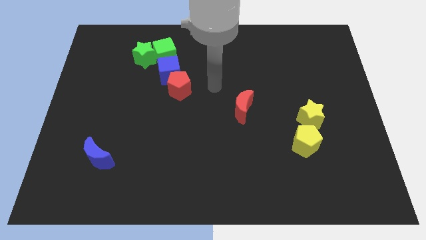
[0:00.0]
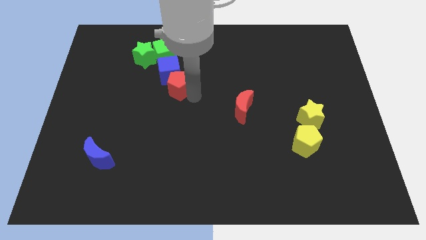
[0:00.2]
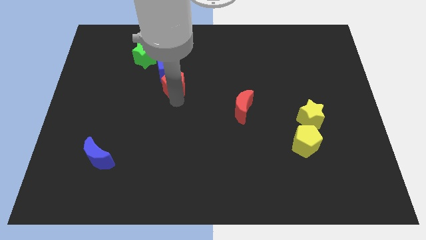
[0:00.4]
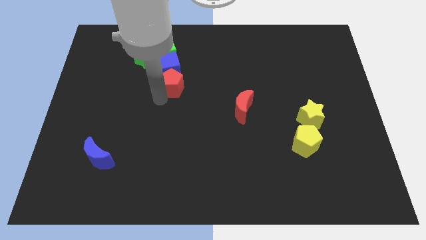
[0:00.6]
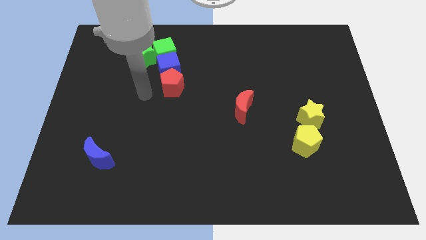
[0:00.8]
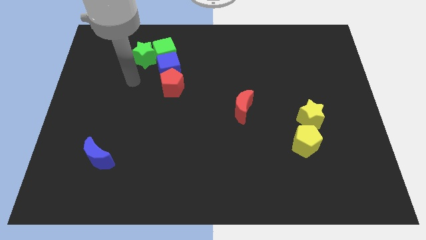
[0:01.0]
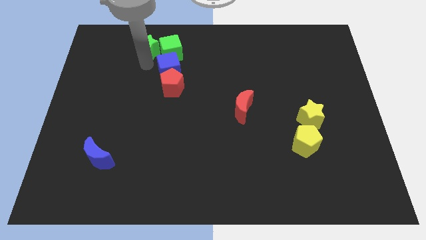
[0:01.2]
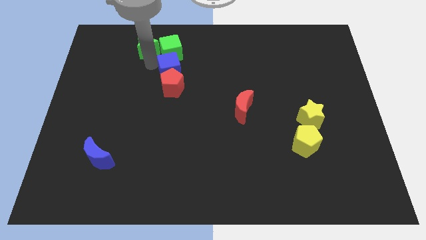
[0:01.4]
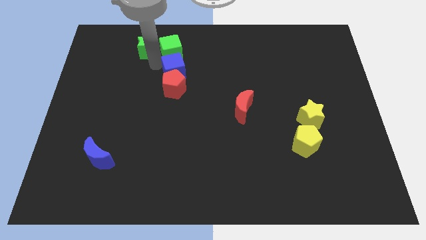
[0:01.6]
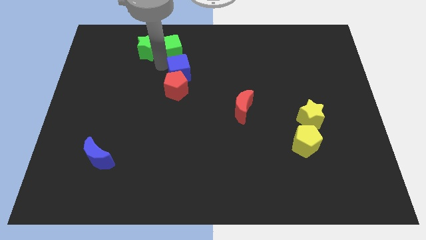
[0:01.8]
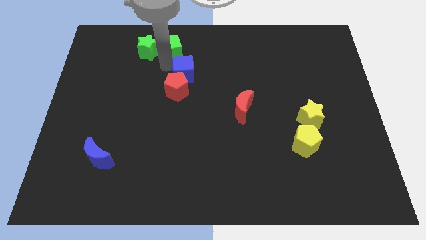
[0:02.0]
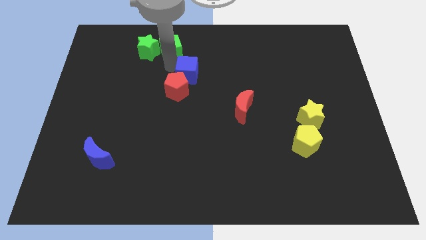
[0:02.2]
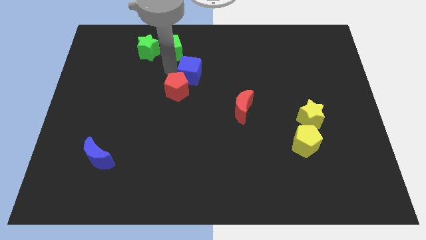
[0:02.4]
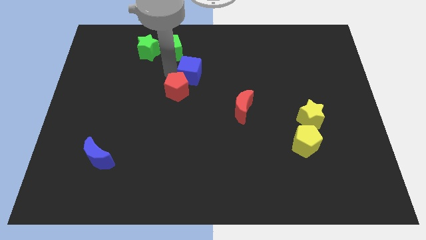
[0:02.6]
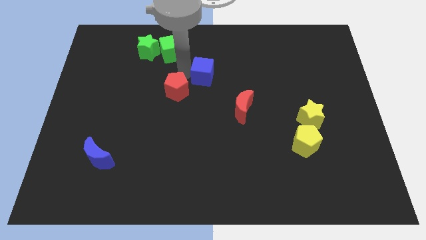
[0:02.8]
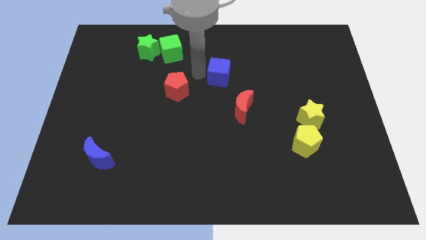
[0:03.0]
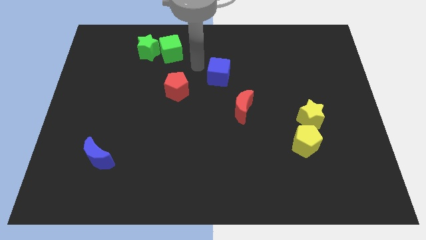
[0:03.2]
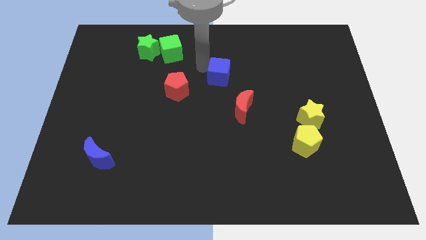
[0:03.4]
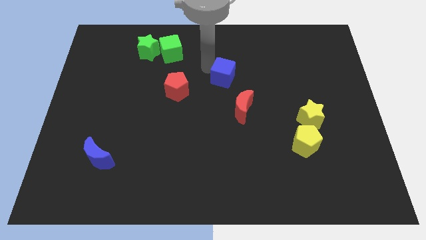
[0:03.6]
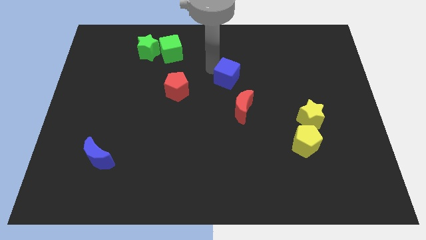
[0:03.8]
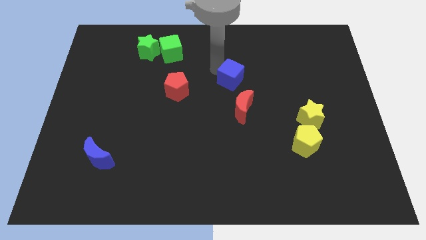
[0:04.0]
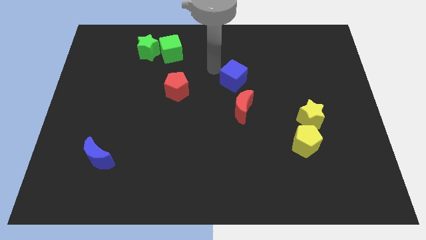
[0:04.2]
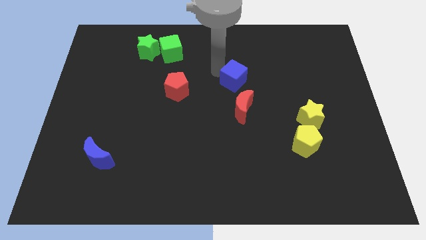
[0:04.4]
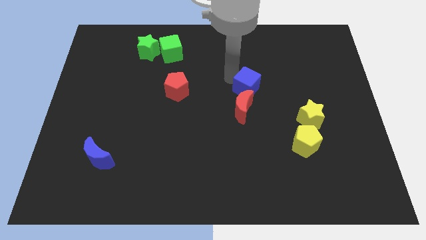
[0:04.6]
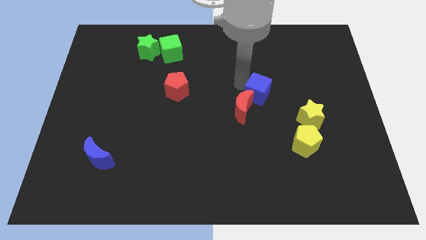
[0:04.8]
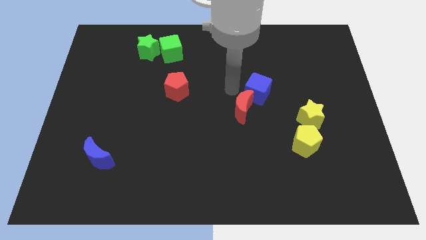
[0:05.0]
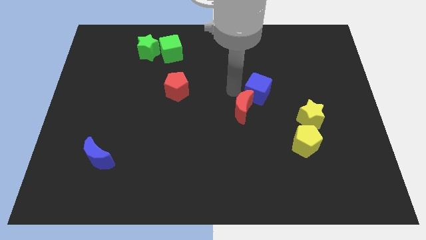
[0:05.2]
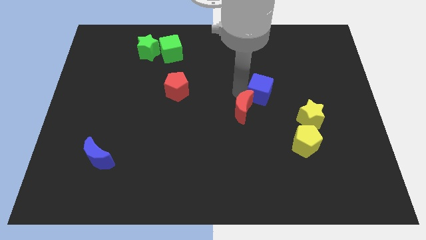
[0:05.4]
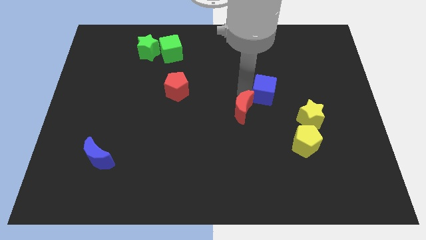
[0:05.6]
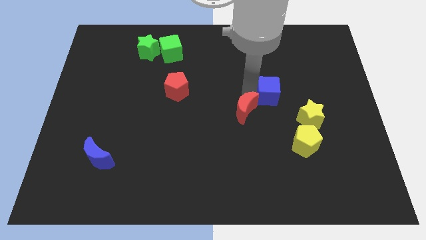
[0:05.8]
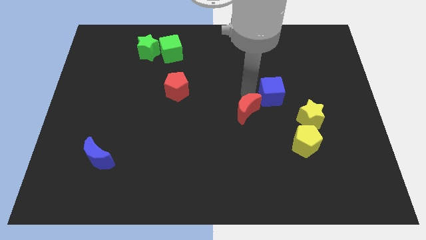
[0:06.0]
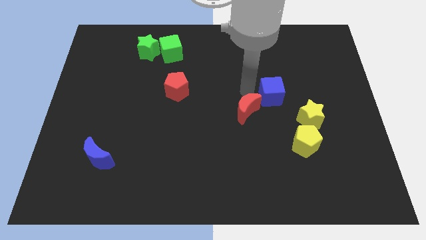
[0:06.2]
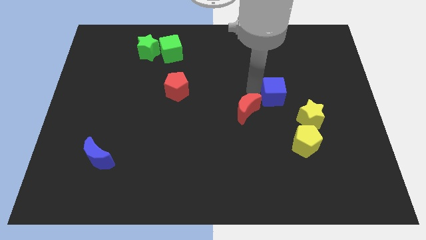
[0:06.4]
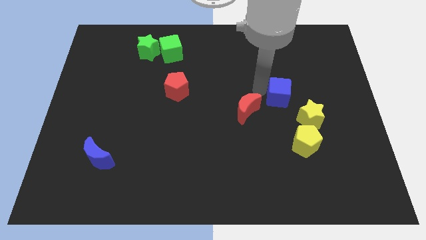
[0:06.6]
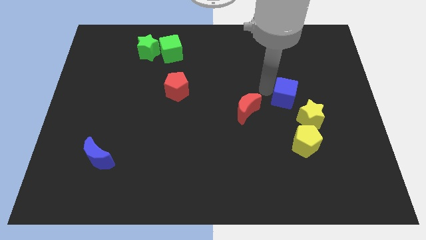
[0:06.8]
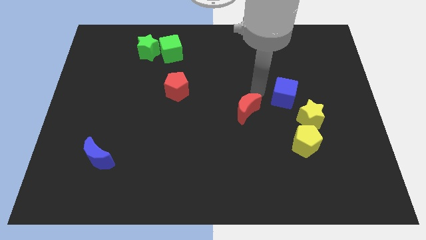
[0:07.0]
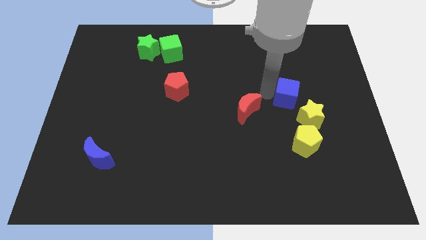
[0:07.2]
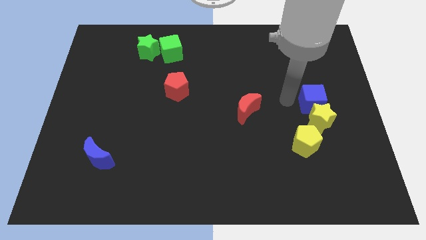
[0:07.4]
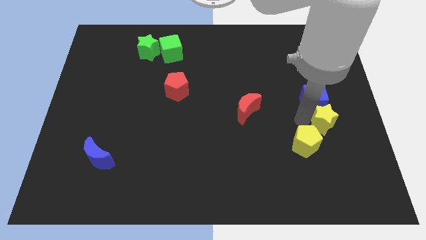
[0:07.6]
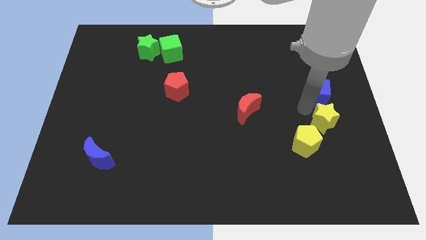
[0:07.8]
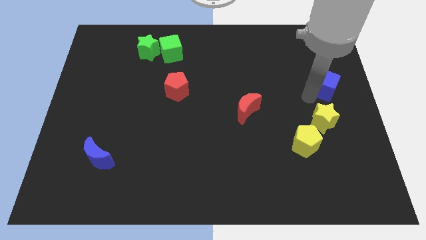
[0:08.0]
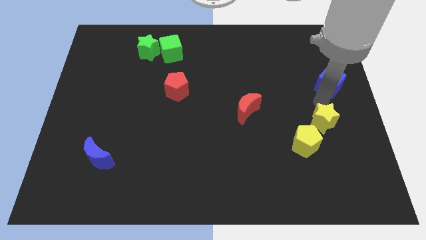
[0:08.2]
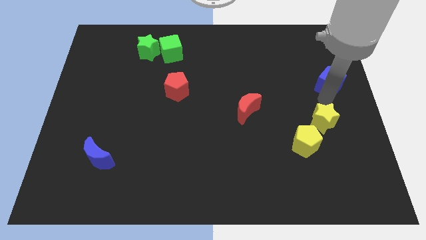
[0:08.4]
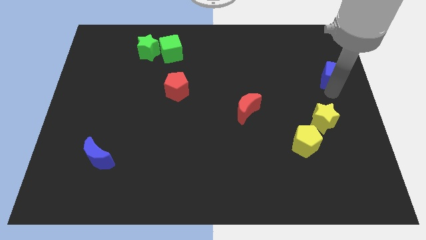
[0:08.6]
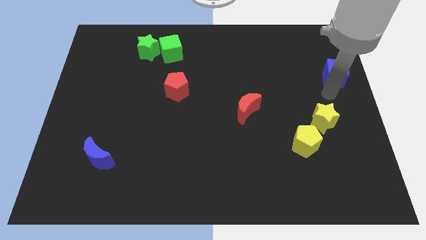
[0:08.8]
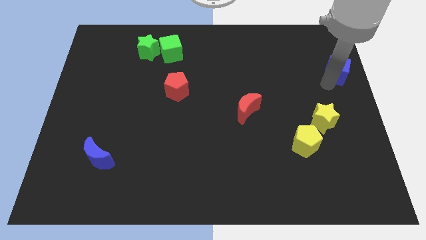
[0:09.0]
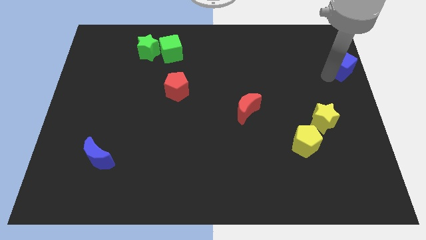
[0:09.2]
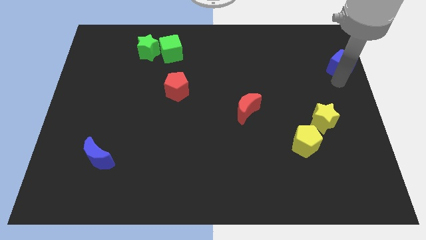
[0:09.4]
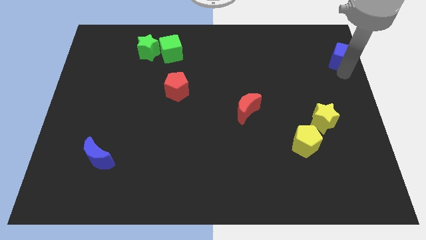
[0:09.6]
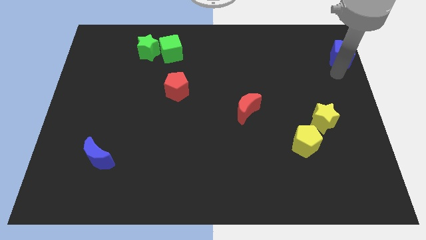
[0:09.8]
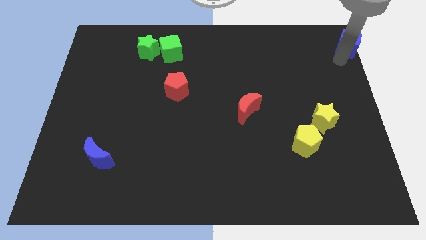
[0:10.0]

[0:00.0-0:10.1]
push the blue cube to the top right

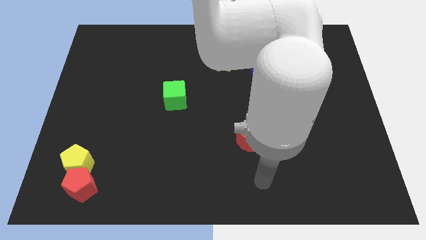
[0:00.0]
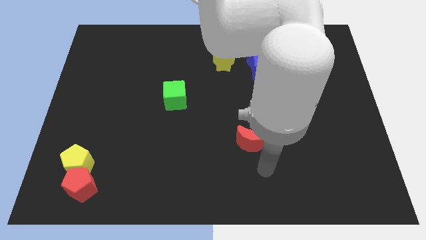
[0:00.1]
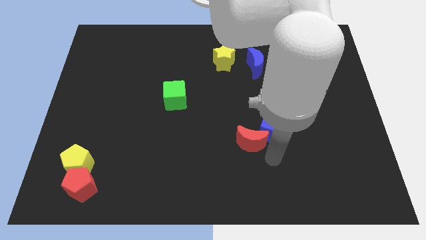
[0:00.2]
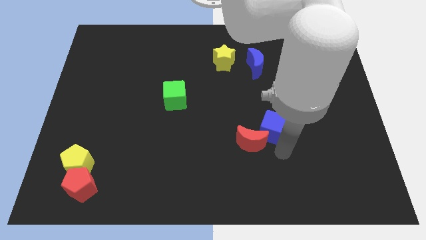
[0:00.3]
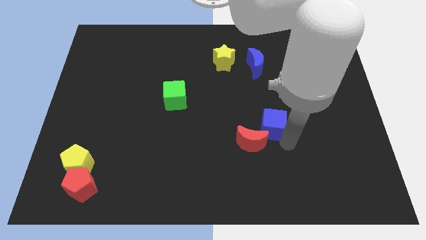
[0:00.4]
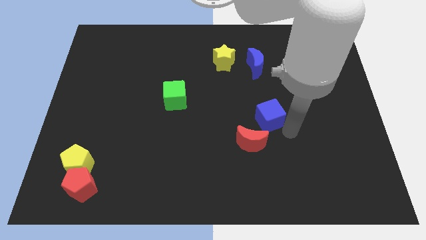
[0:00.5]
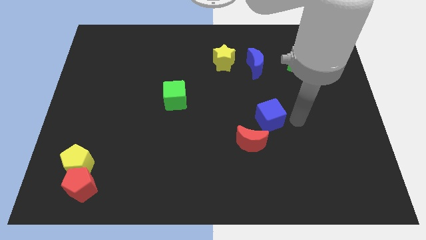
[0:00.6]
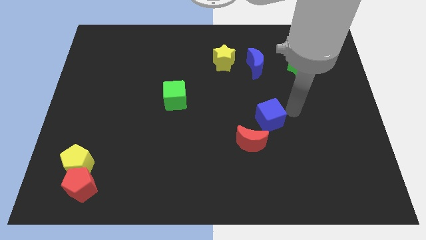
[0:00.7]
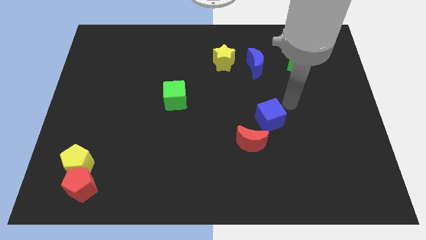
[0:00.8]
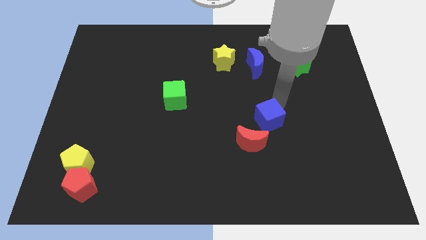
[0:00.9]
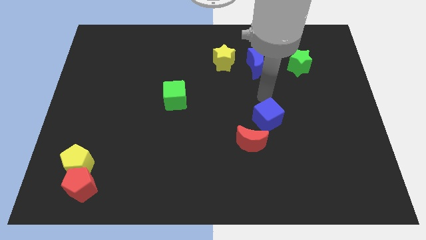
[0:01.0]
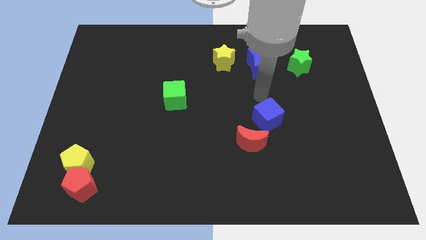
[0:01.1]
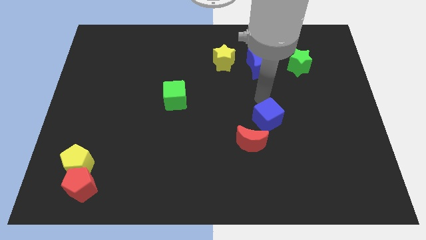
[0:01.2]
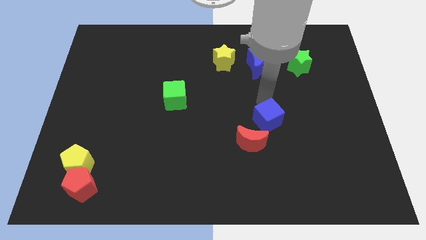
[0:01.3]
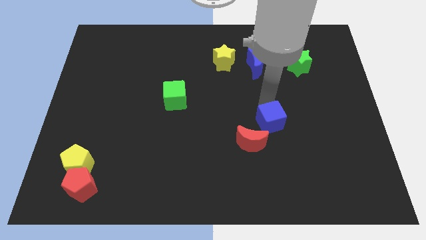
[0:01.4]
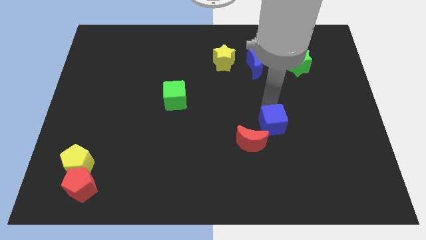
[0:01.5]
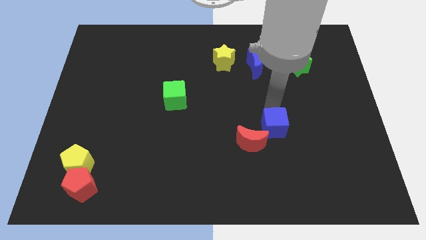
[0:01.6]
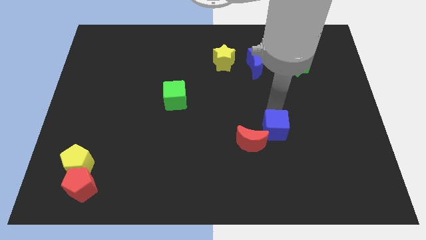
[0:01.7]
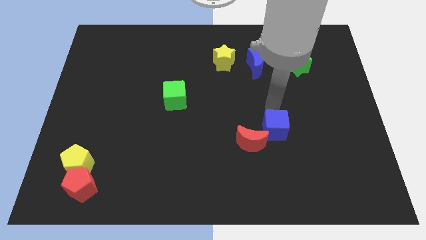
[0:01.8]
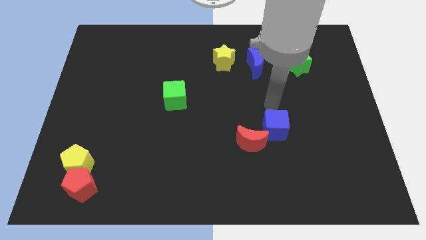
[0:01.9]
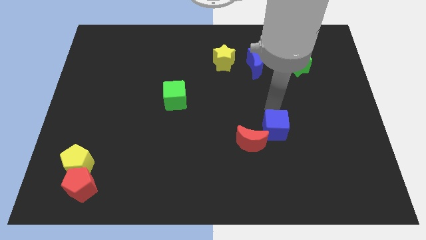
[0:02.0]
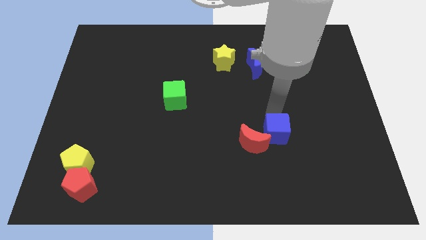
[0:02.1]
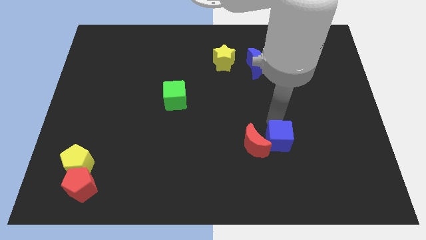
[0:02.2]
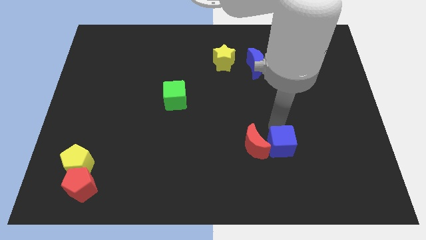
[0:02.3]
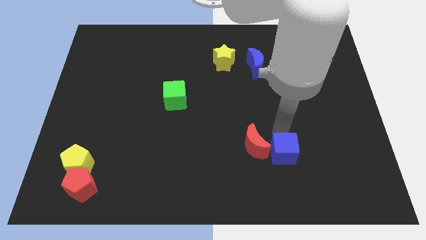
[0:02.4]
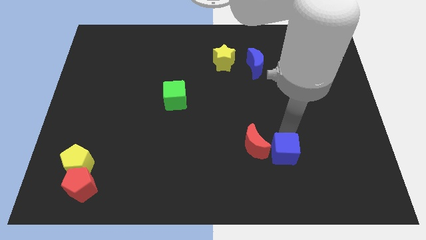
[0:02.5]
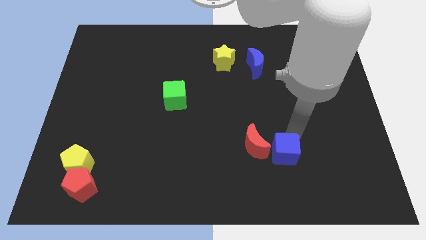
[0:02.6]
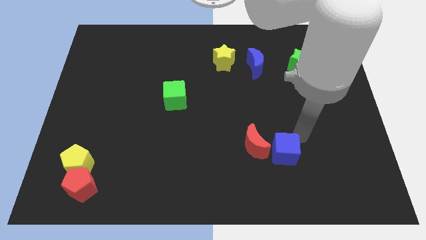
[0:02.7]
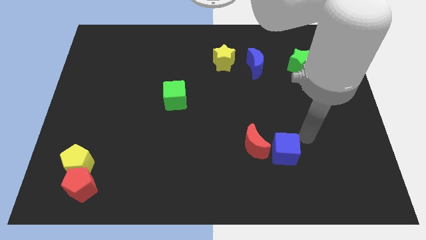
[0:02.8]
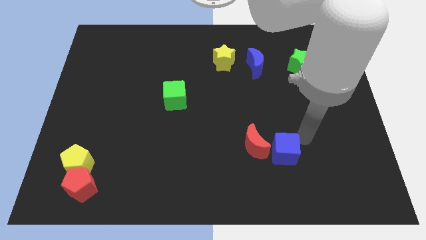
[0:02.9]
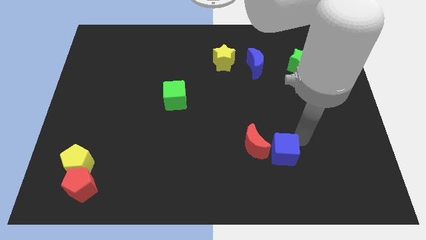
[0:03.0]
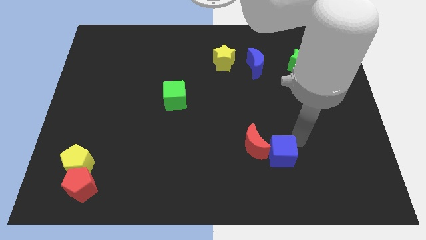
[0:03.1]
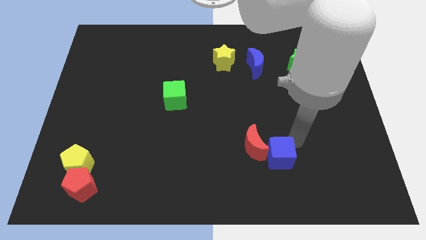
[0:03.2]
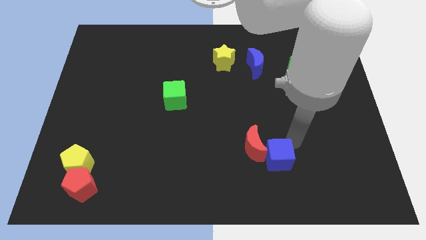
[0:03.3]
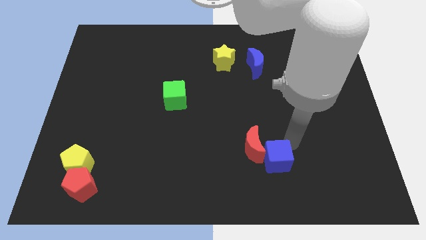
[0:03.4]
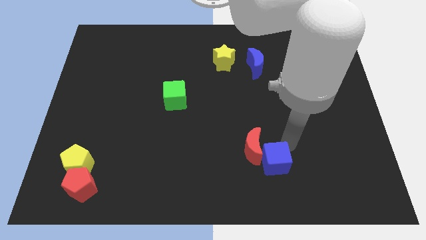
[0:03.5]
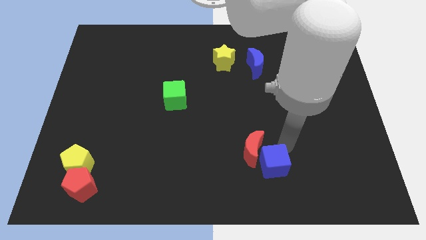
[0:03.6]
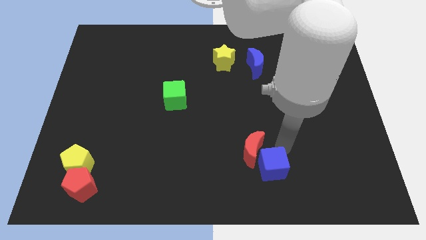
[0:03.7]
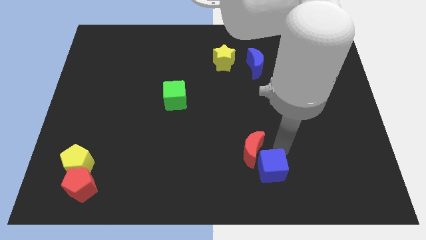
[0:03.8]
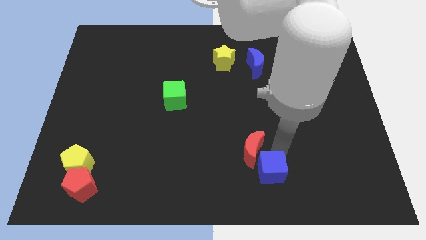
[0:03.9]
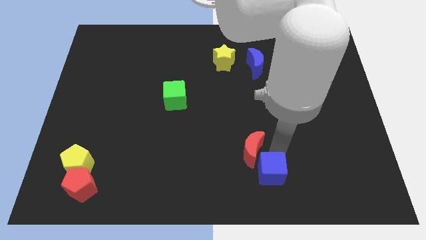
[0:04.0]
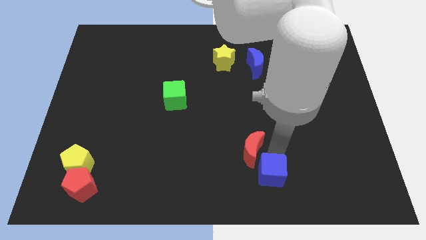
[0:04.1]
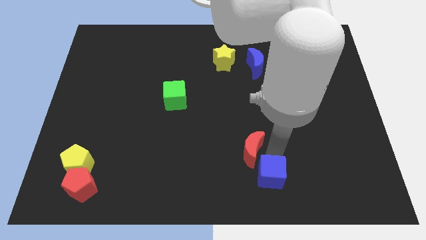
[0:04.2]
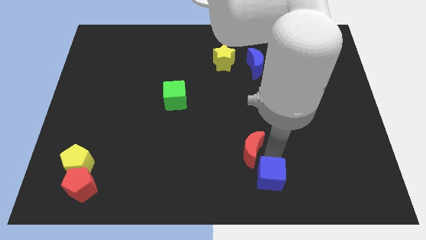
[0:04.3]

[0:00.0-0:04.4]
slide the blue cube to the bottom side
